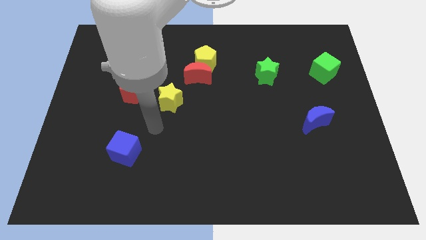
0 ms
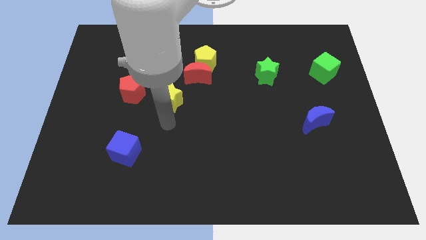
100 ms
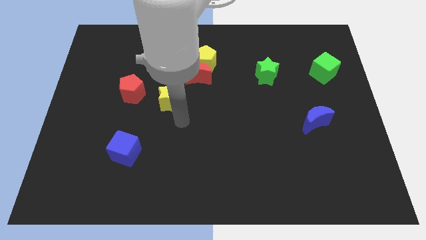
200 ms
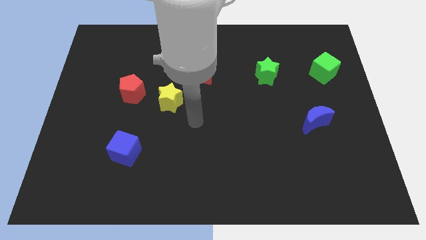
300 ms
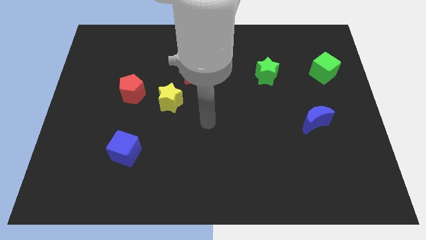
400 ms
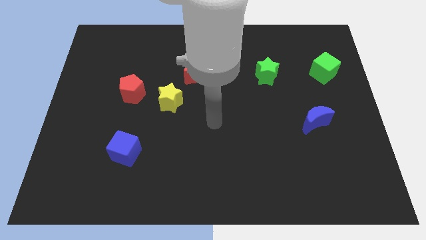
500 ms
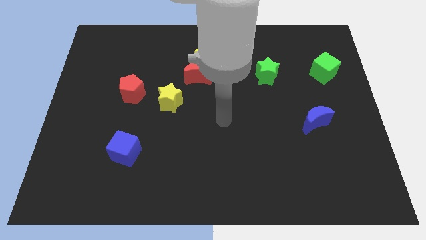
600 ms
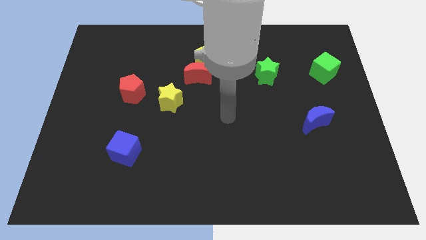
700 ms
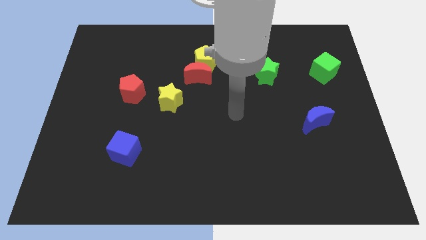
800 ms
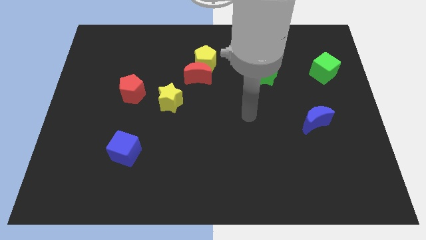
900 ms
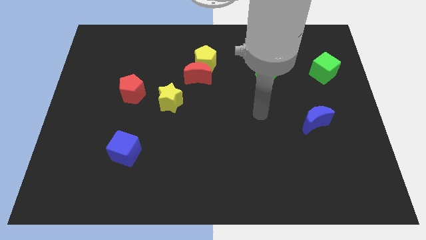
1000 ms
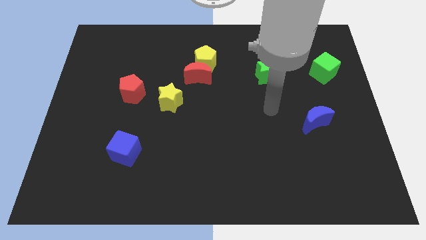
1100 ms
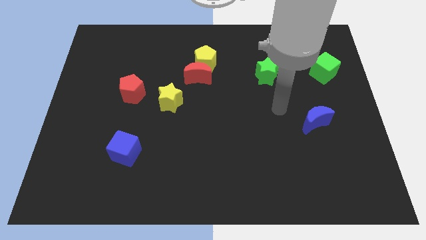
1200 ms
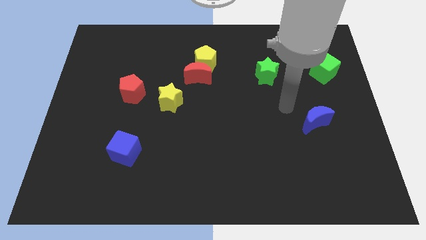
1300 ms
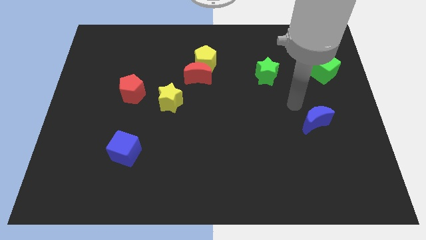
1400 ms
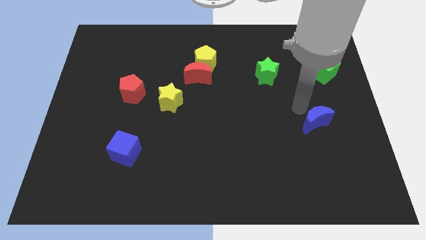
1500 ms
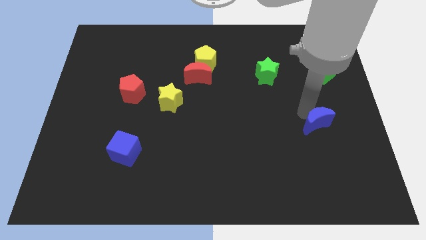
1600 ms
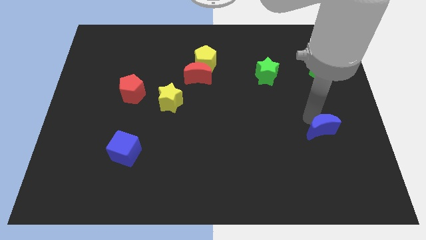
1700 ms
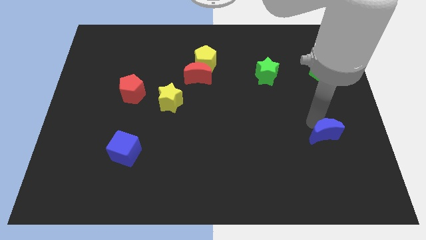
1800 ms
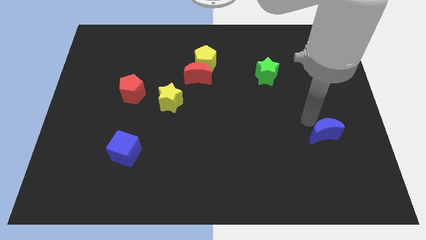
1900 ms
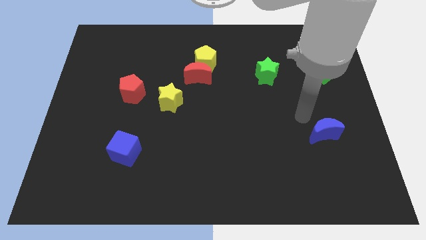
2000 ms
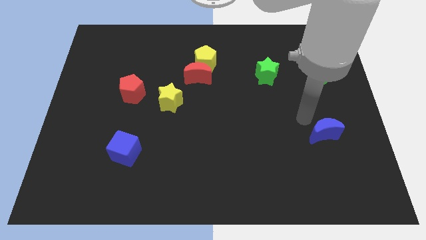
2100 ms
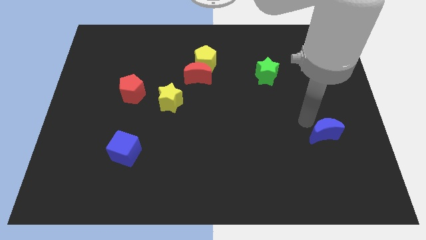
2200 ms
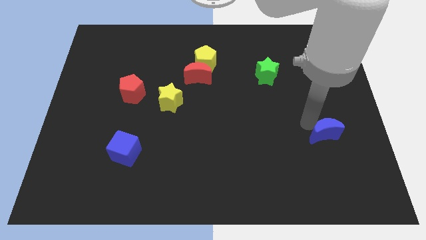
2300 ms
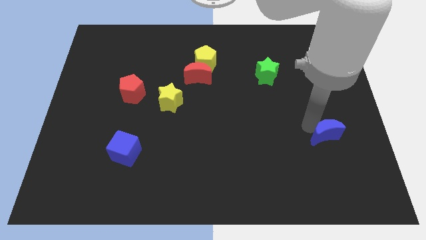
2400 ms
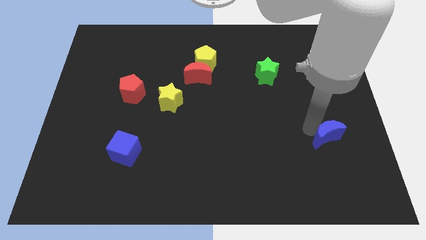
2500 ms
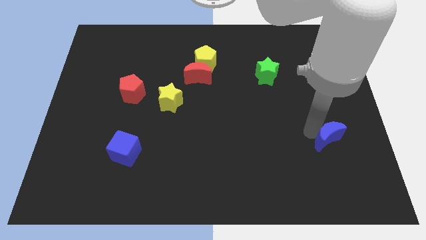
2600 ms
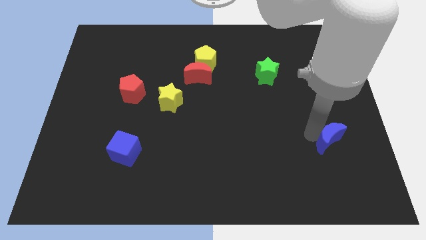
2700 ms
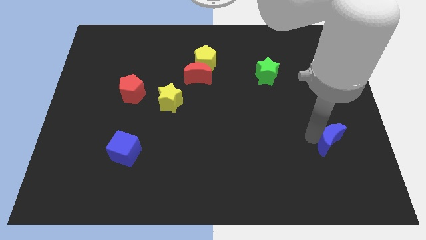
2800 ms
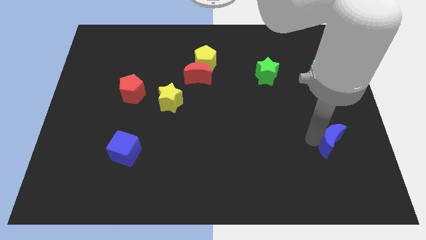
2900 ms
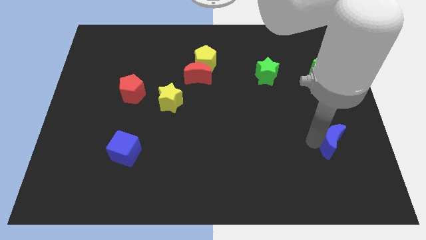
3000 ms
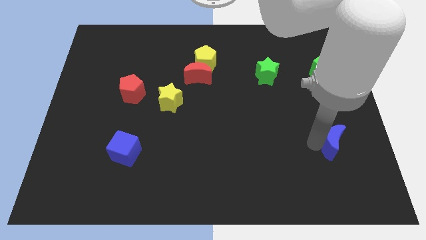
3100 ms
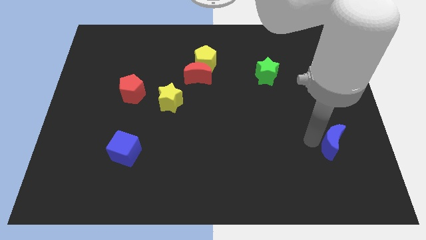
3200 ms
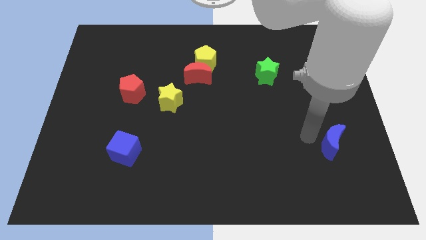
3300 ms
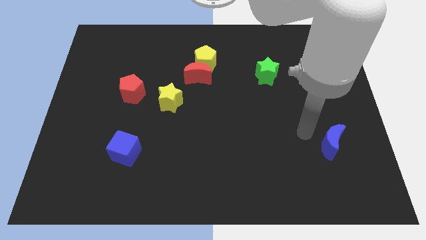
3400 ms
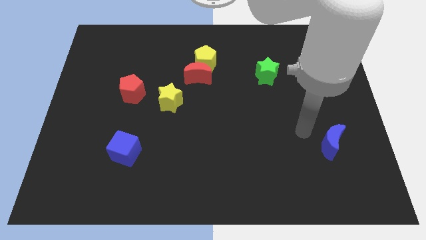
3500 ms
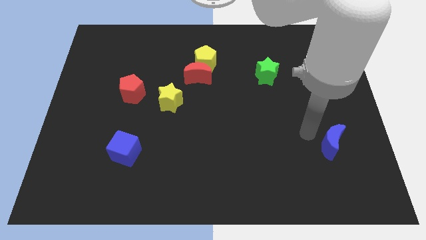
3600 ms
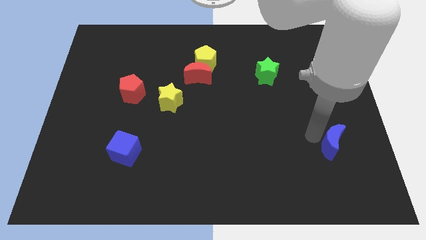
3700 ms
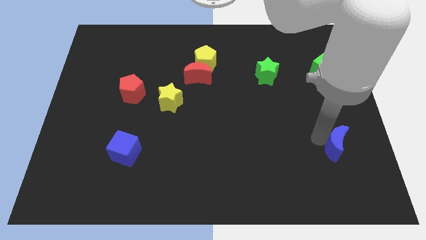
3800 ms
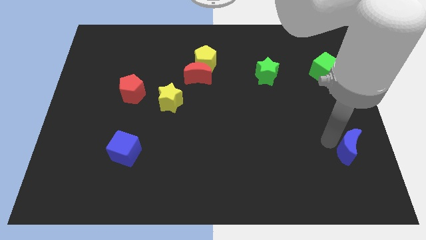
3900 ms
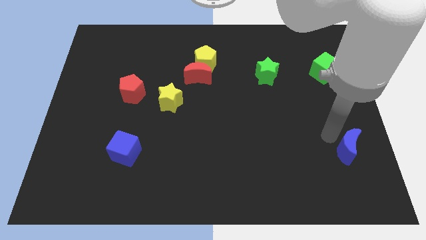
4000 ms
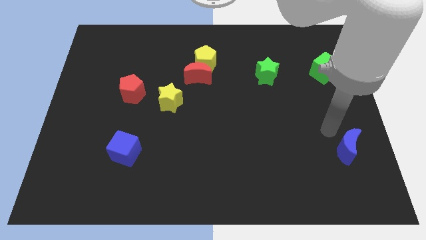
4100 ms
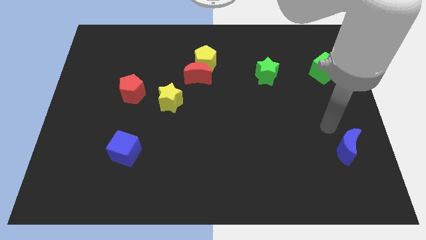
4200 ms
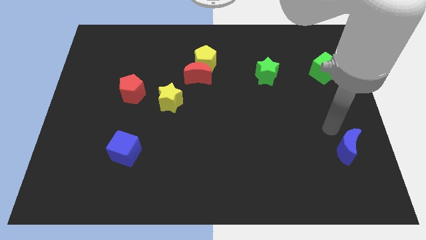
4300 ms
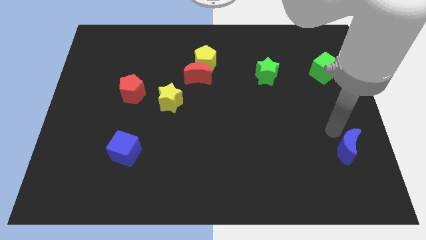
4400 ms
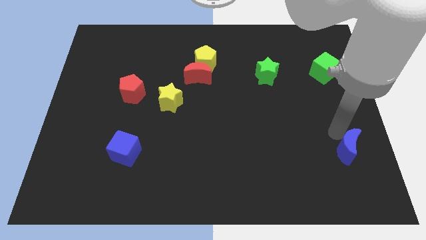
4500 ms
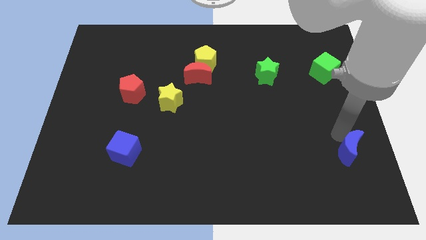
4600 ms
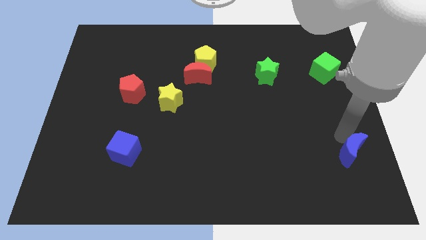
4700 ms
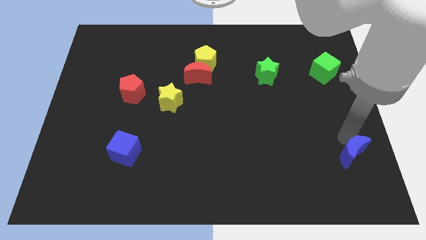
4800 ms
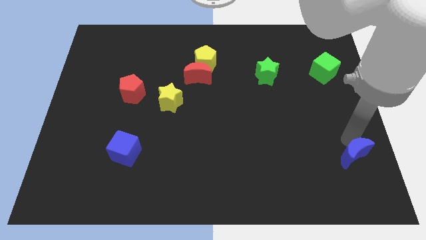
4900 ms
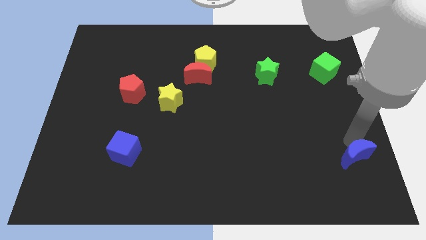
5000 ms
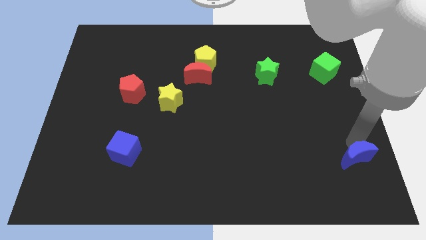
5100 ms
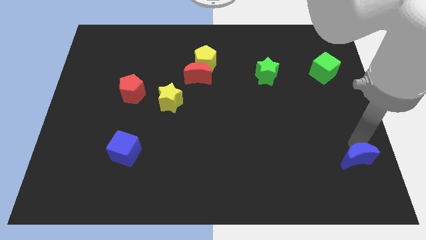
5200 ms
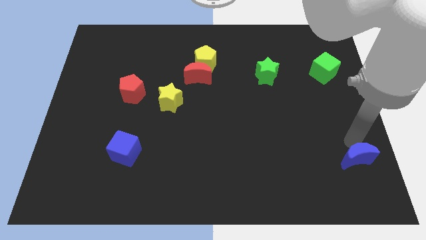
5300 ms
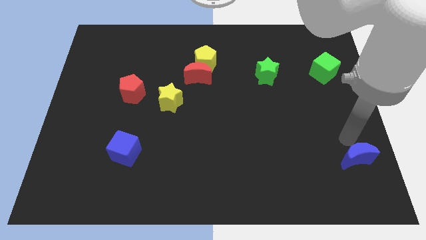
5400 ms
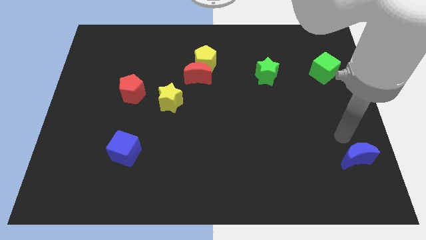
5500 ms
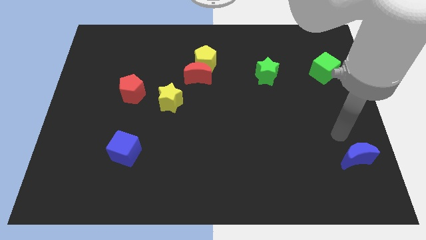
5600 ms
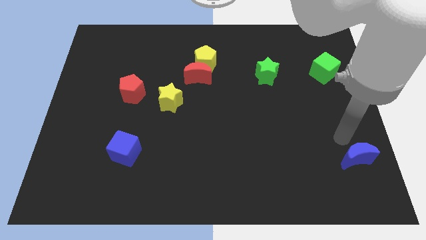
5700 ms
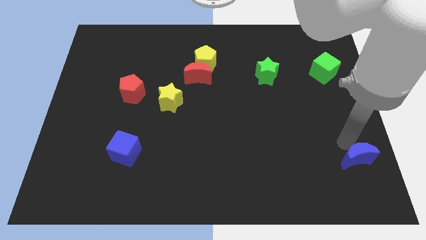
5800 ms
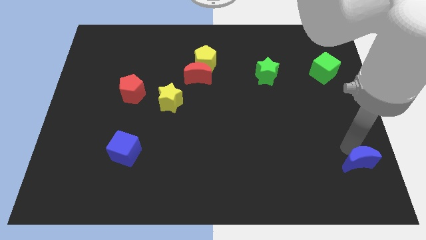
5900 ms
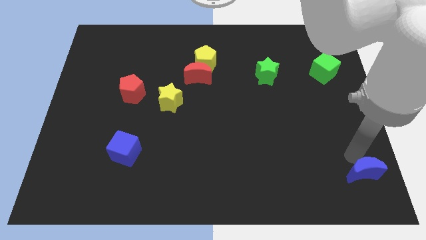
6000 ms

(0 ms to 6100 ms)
put the blue moon to the bottom right corner

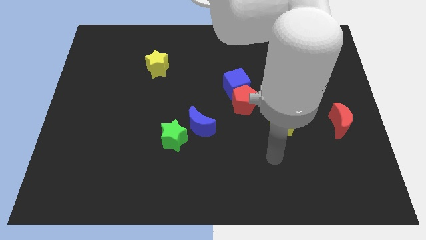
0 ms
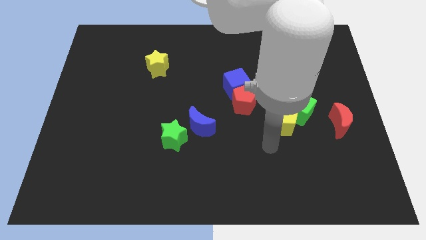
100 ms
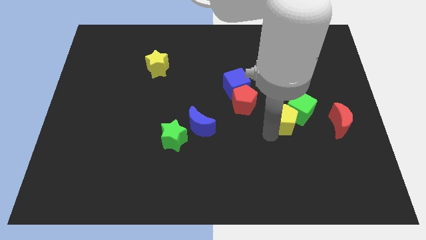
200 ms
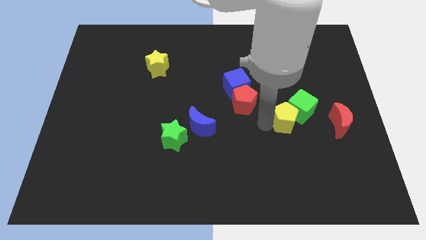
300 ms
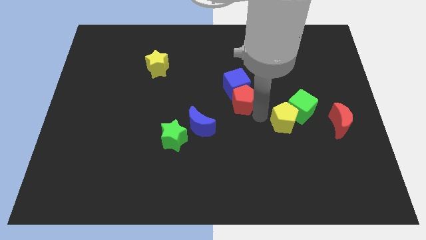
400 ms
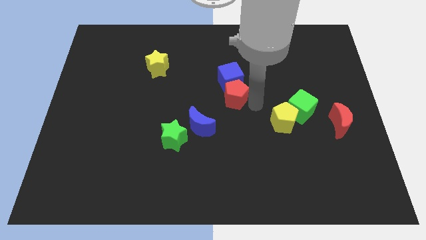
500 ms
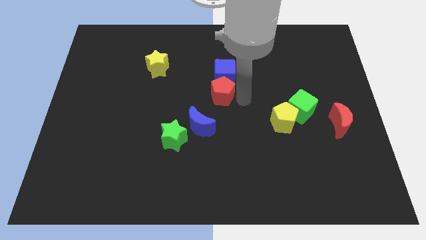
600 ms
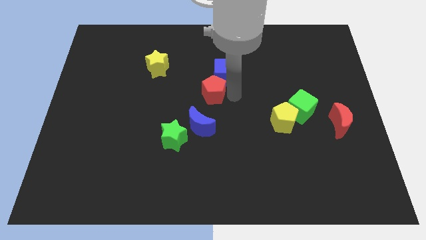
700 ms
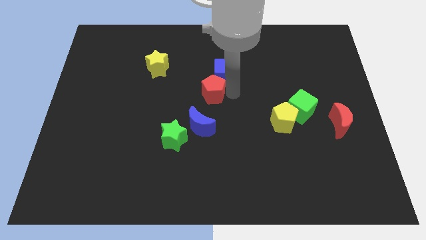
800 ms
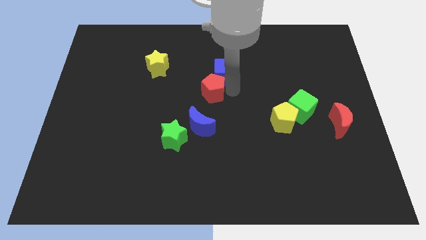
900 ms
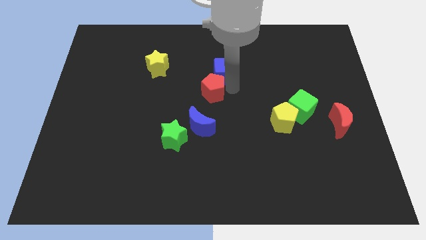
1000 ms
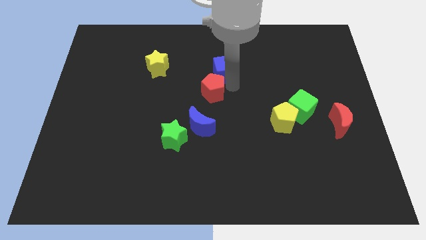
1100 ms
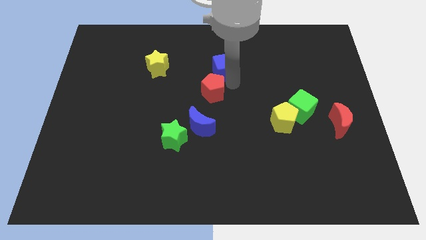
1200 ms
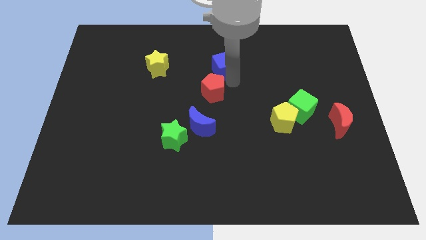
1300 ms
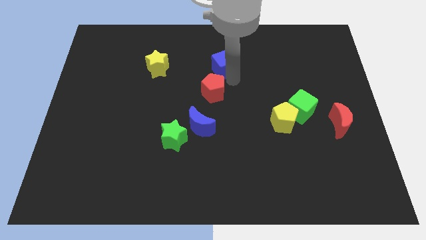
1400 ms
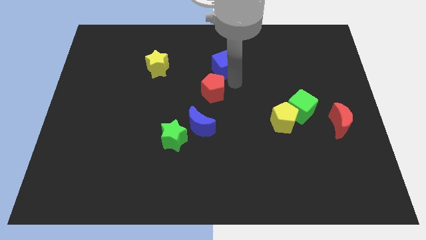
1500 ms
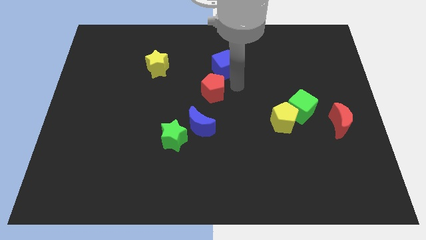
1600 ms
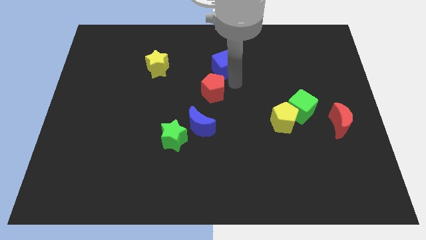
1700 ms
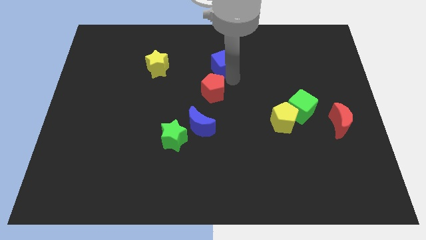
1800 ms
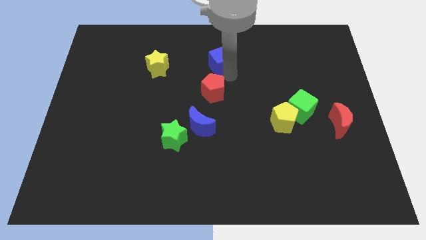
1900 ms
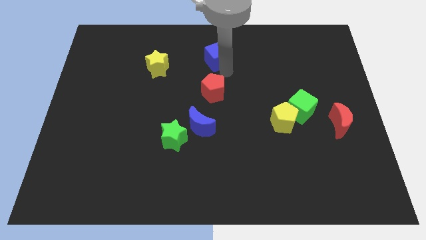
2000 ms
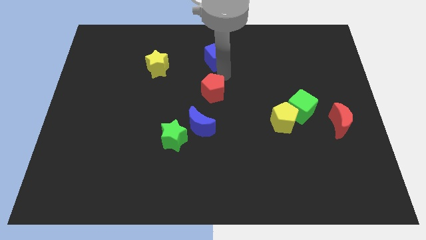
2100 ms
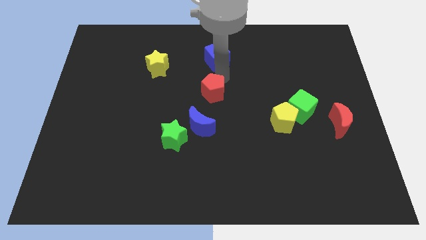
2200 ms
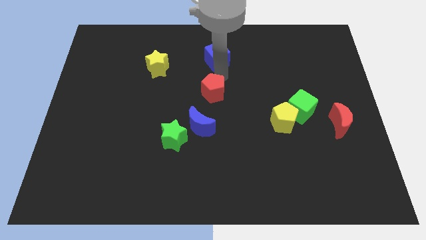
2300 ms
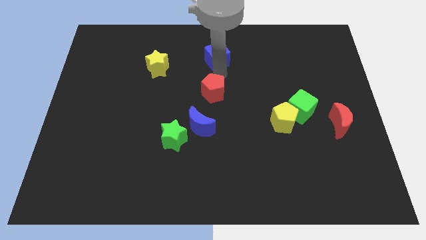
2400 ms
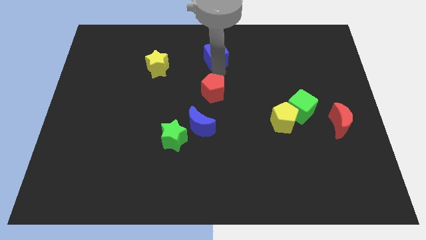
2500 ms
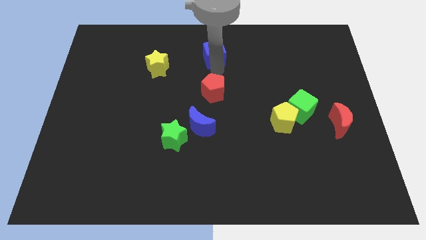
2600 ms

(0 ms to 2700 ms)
put the blue cube to the towards your base
